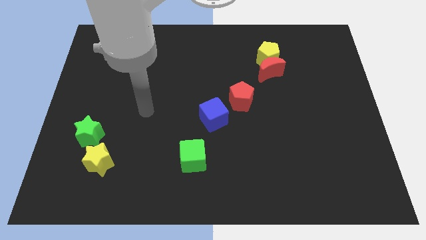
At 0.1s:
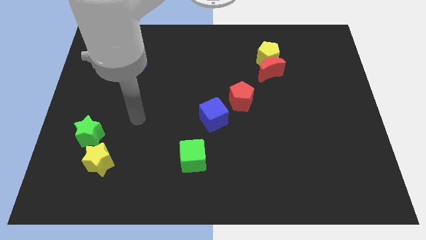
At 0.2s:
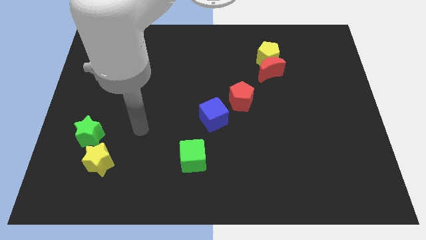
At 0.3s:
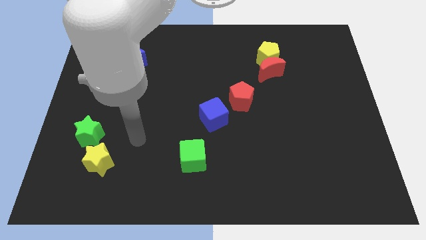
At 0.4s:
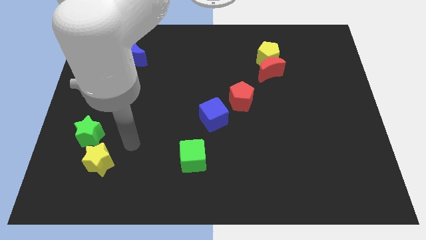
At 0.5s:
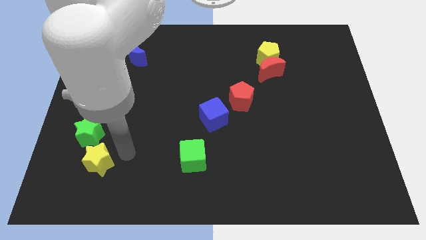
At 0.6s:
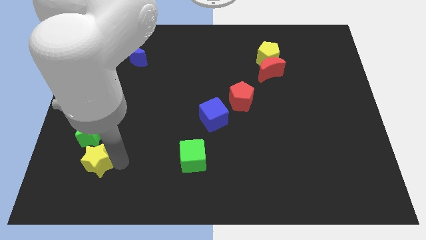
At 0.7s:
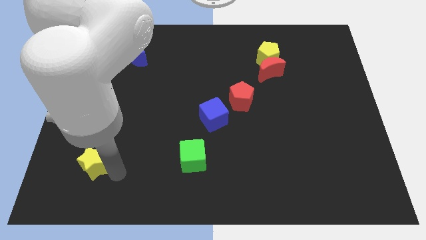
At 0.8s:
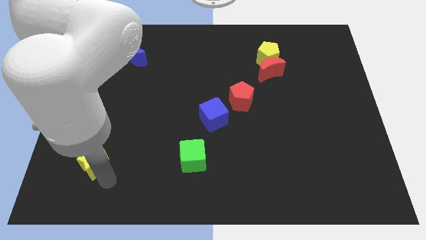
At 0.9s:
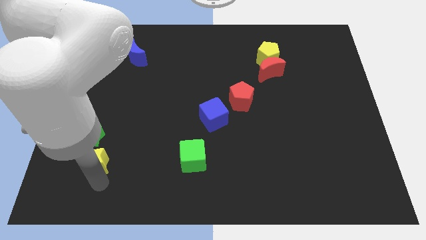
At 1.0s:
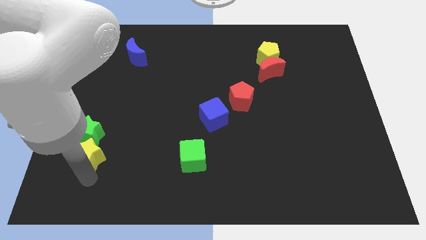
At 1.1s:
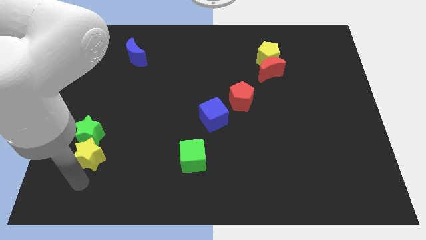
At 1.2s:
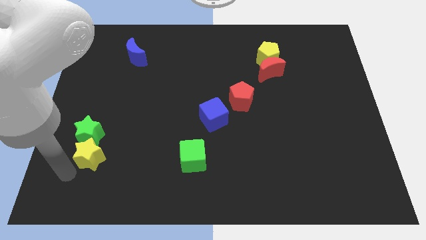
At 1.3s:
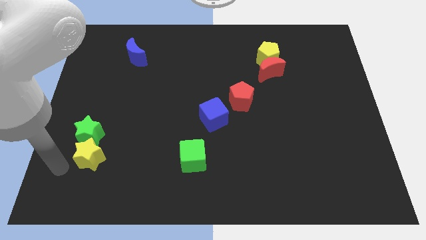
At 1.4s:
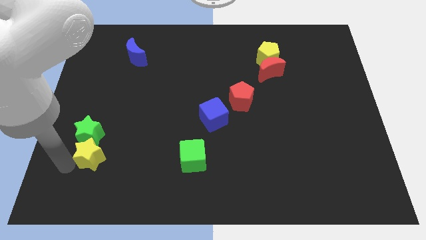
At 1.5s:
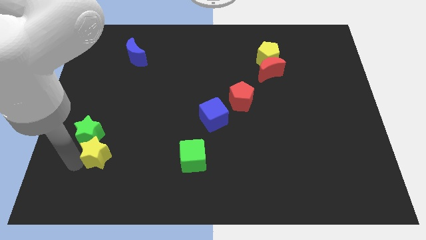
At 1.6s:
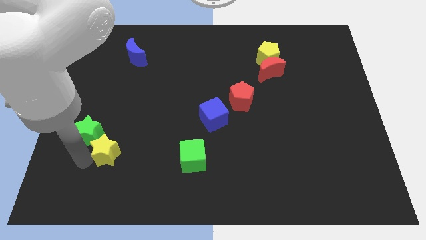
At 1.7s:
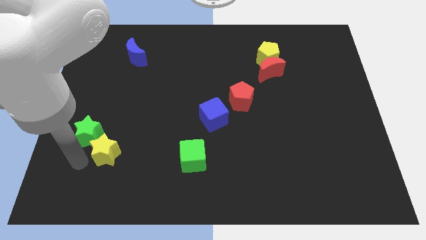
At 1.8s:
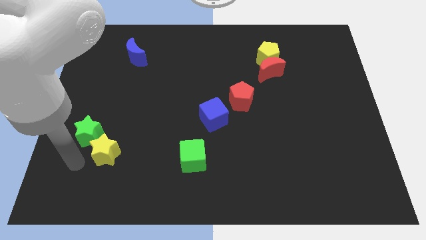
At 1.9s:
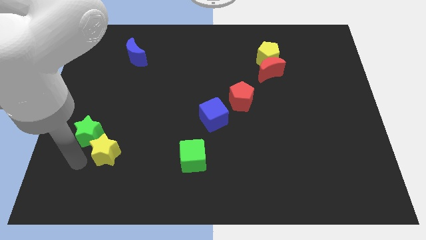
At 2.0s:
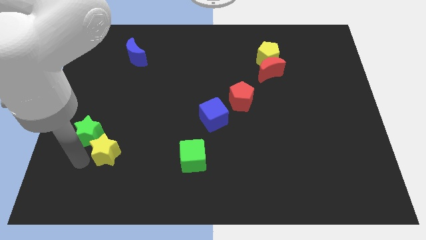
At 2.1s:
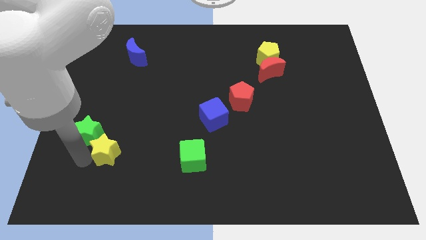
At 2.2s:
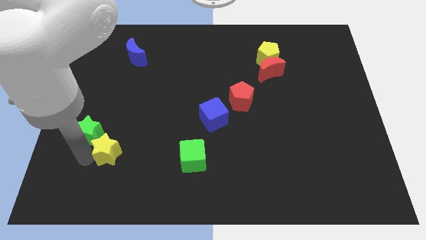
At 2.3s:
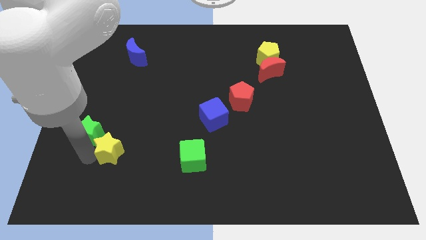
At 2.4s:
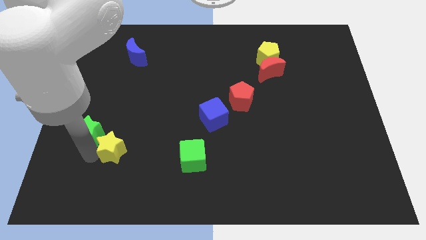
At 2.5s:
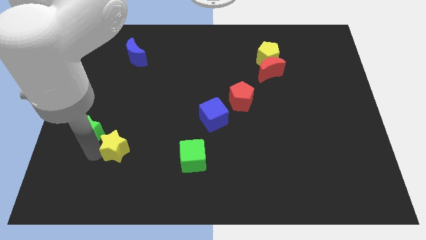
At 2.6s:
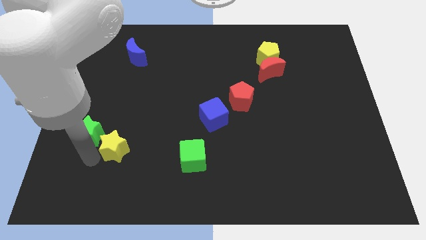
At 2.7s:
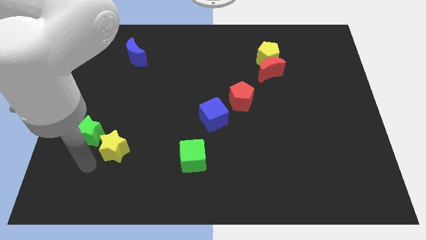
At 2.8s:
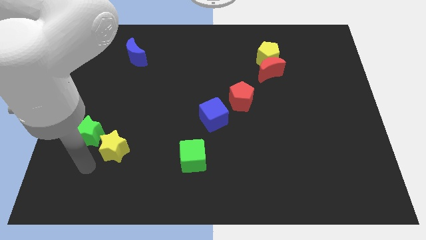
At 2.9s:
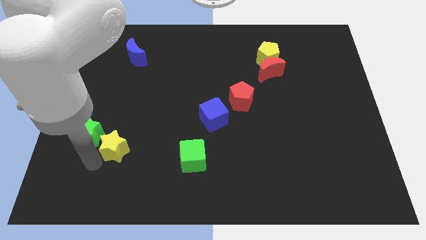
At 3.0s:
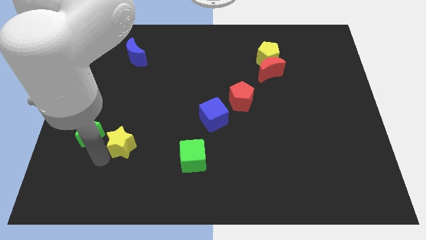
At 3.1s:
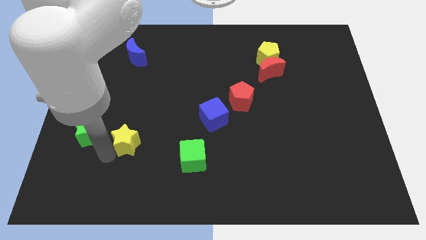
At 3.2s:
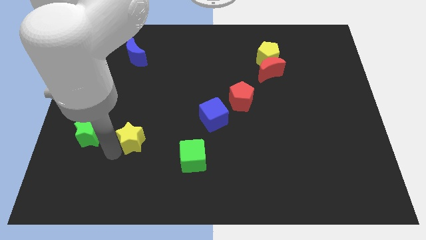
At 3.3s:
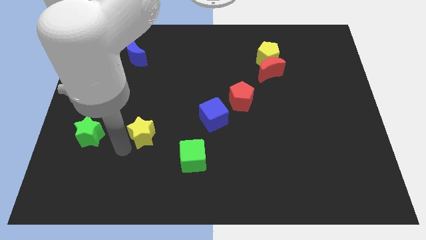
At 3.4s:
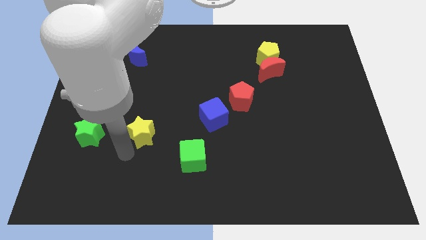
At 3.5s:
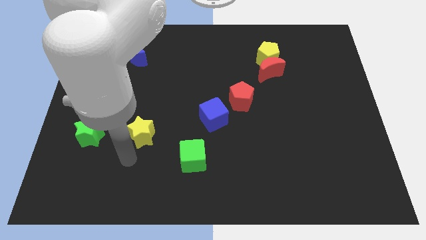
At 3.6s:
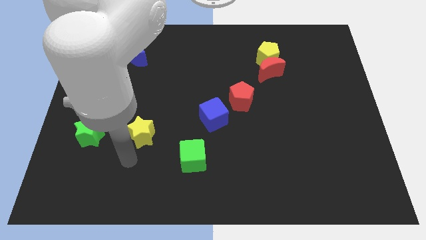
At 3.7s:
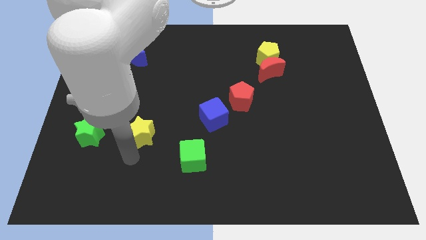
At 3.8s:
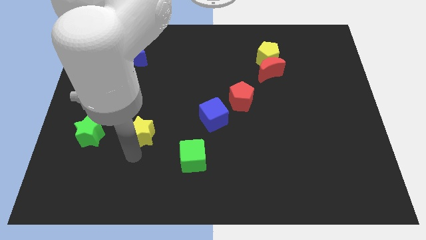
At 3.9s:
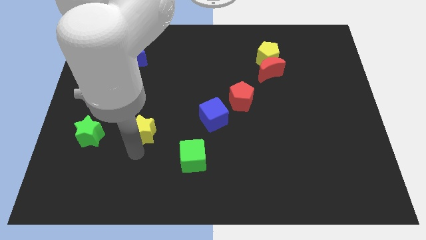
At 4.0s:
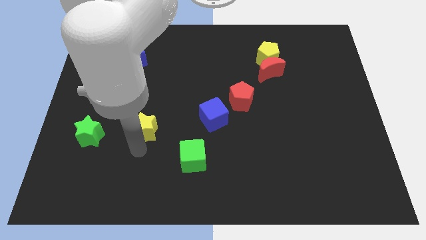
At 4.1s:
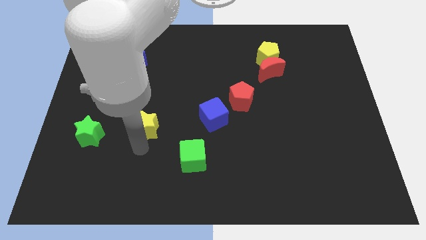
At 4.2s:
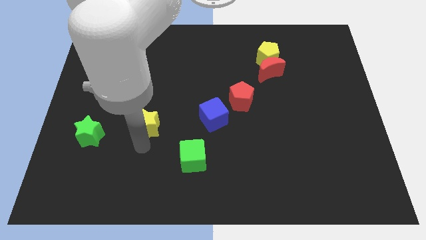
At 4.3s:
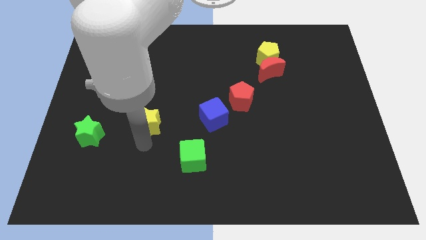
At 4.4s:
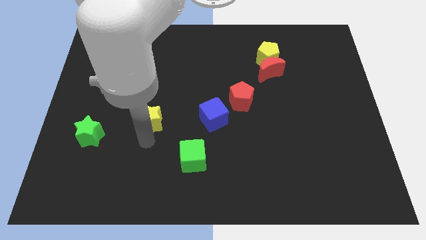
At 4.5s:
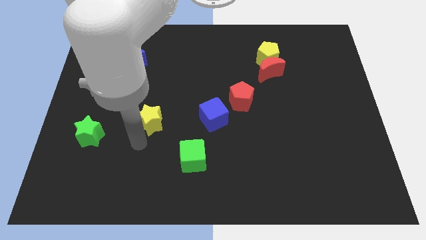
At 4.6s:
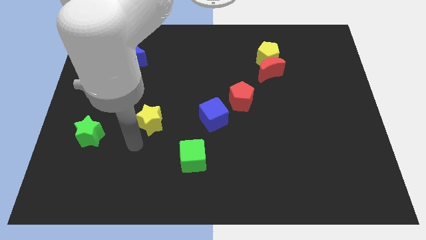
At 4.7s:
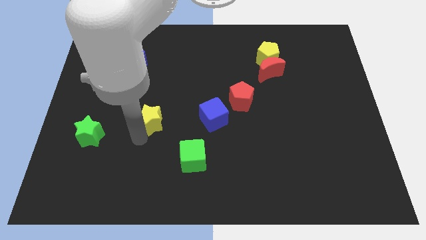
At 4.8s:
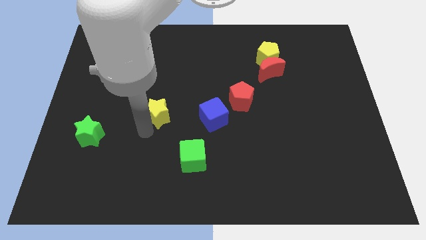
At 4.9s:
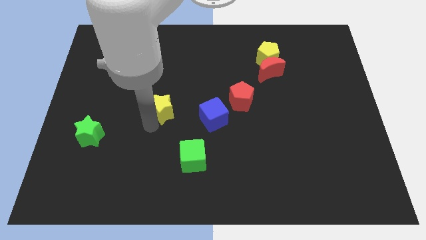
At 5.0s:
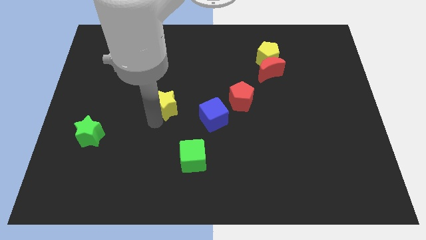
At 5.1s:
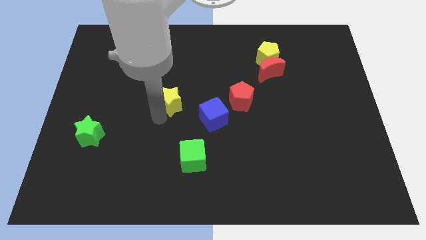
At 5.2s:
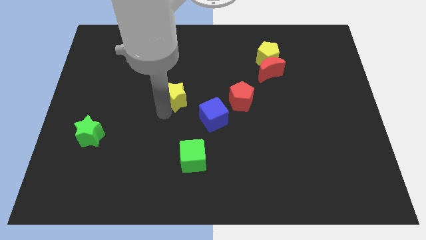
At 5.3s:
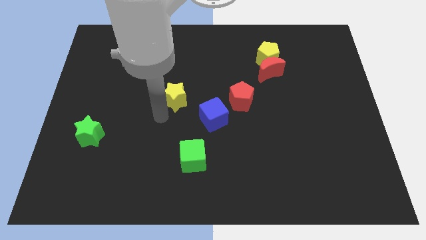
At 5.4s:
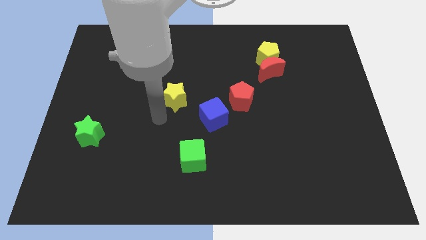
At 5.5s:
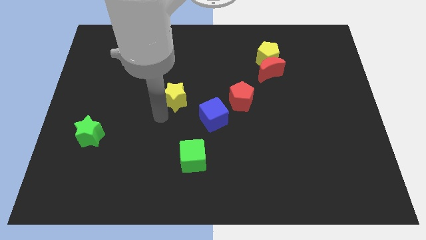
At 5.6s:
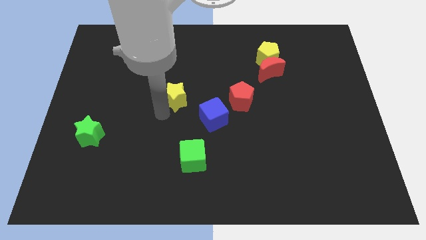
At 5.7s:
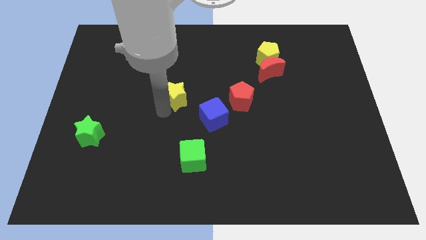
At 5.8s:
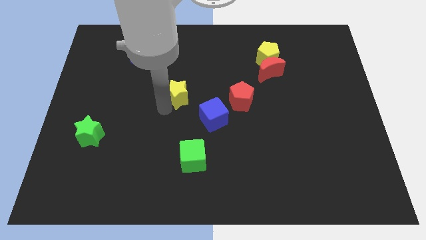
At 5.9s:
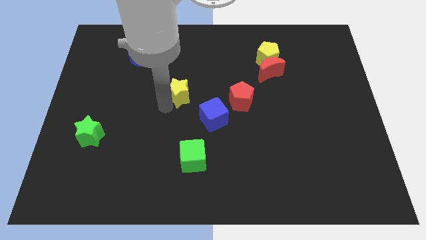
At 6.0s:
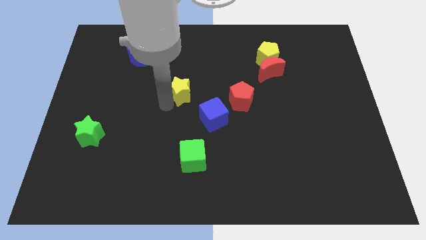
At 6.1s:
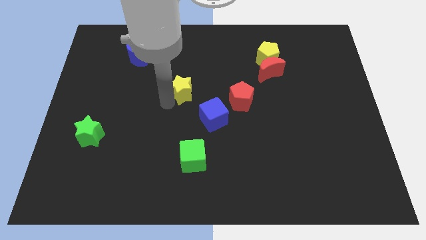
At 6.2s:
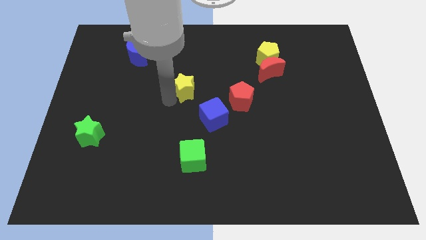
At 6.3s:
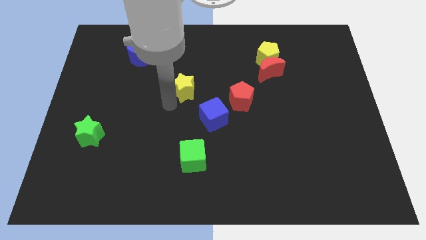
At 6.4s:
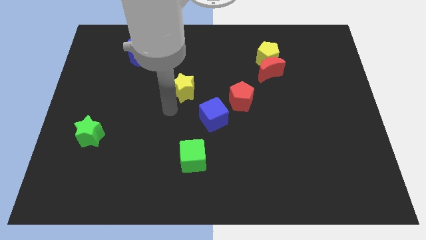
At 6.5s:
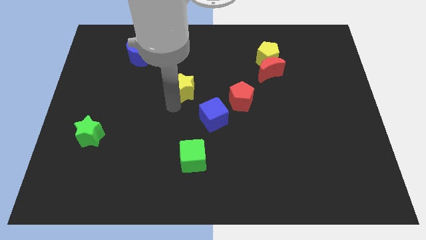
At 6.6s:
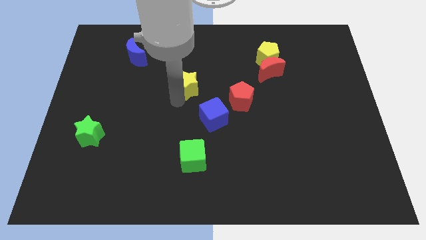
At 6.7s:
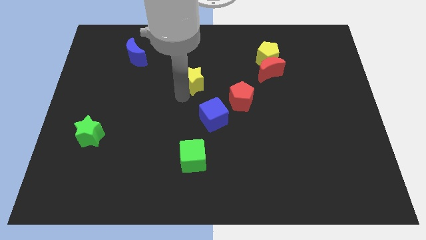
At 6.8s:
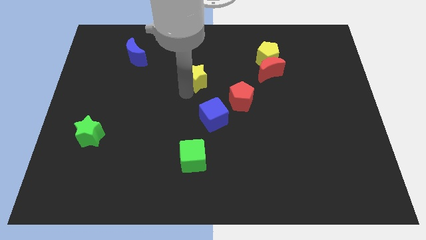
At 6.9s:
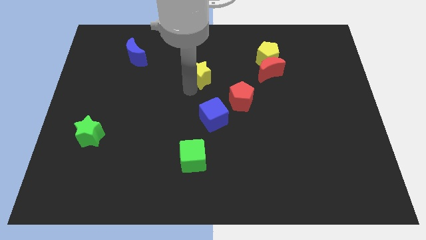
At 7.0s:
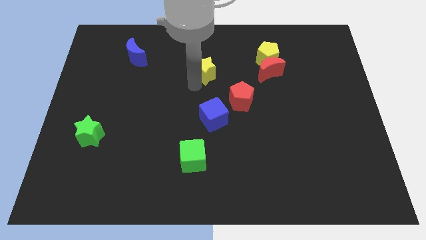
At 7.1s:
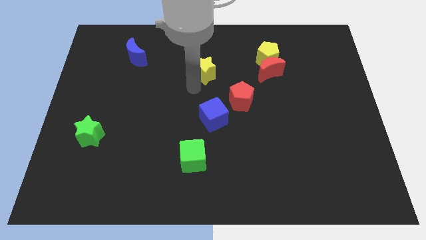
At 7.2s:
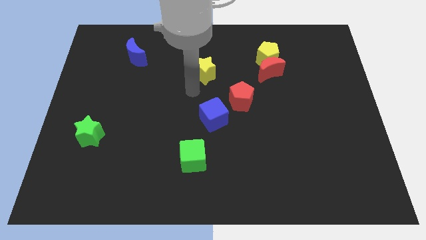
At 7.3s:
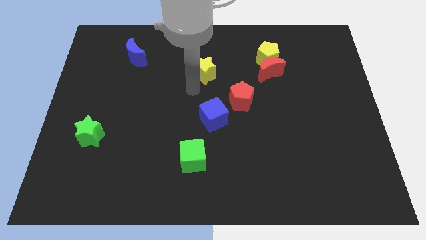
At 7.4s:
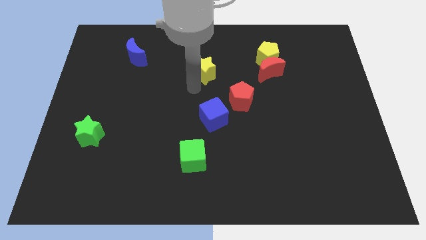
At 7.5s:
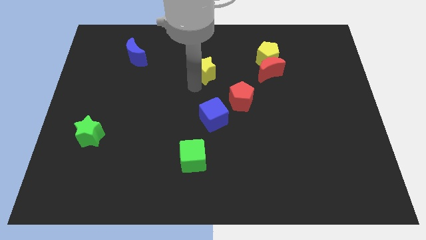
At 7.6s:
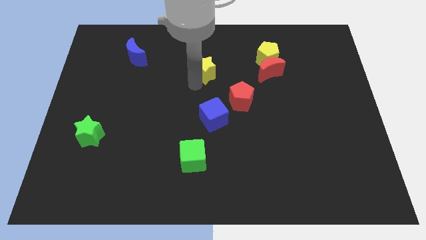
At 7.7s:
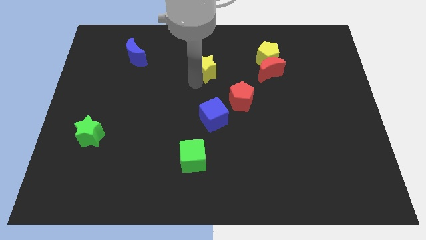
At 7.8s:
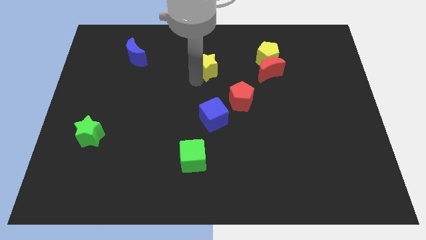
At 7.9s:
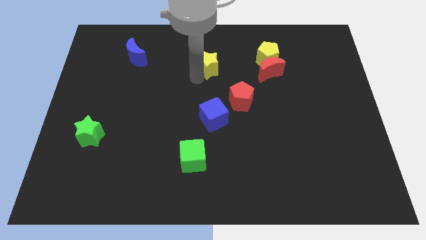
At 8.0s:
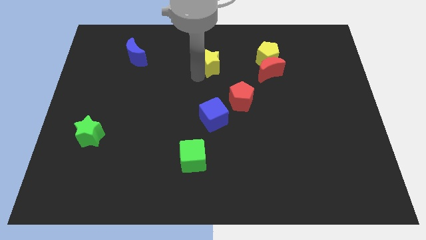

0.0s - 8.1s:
push the yellow star left of the yellow pentagon
